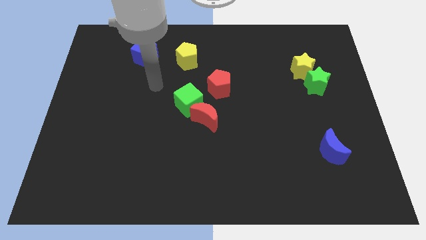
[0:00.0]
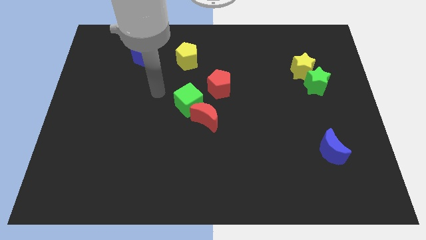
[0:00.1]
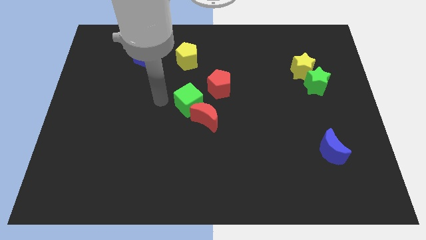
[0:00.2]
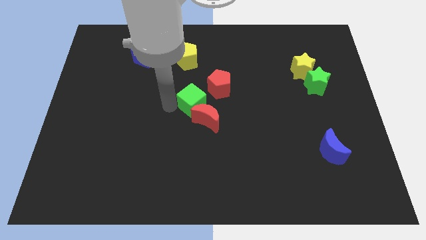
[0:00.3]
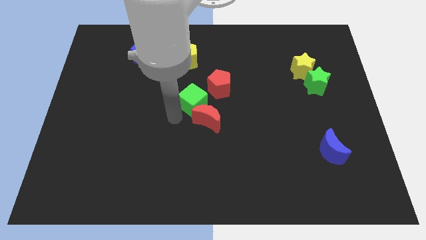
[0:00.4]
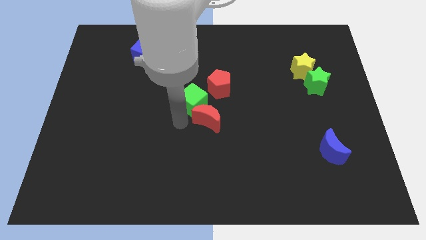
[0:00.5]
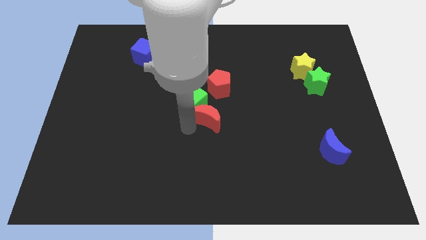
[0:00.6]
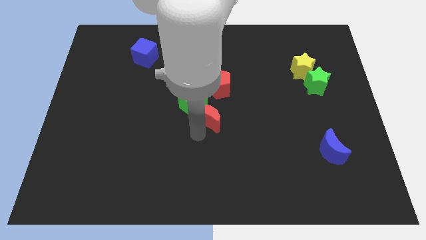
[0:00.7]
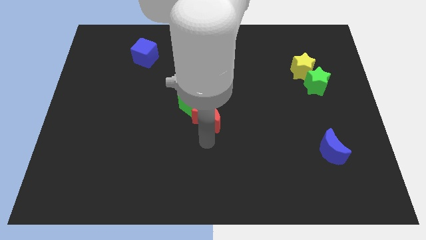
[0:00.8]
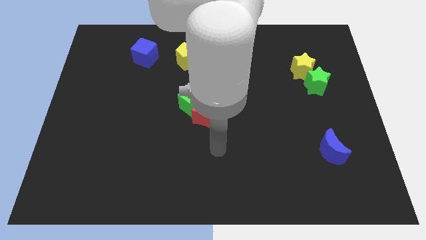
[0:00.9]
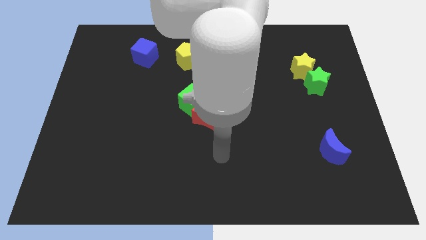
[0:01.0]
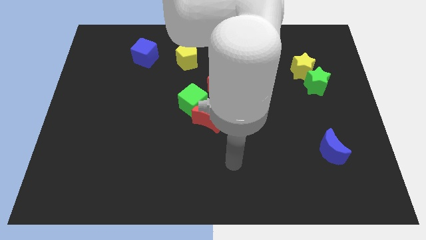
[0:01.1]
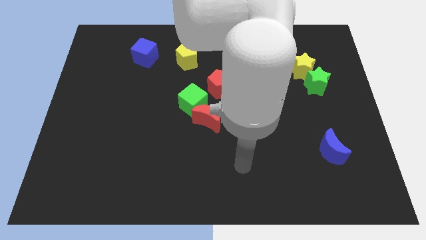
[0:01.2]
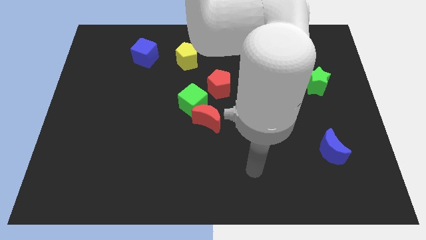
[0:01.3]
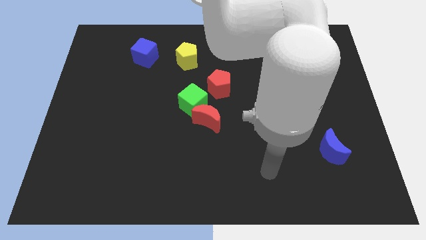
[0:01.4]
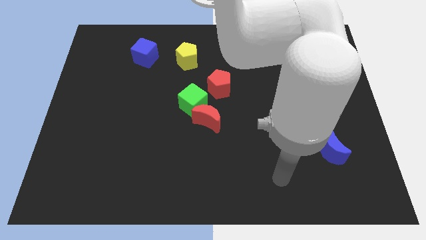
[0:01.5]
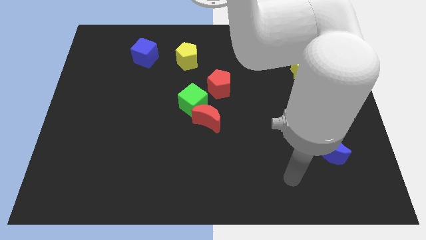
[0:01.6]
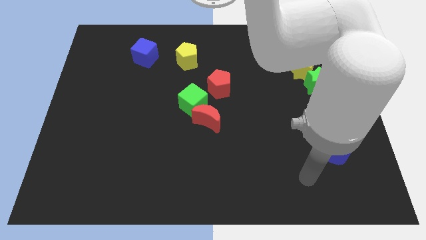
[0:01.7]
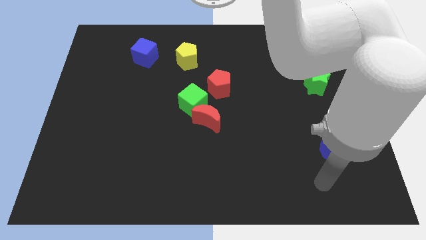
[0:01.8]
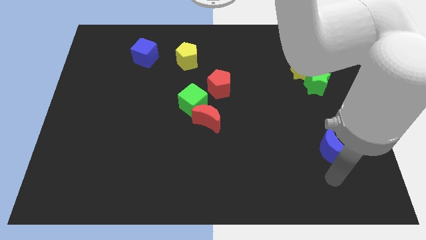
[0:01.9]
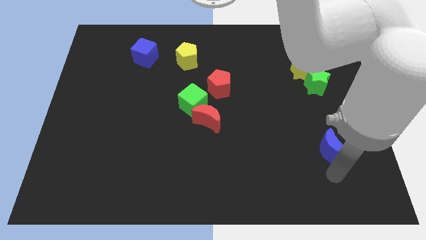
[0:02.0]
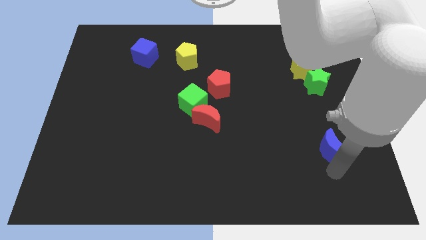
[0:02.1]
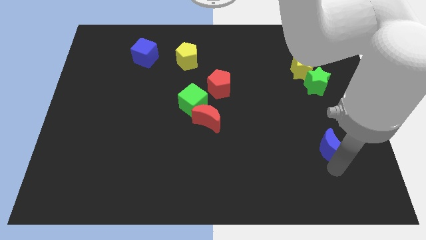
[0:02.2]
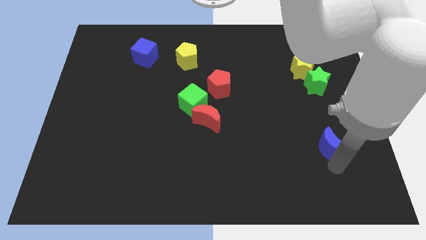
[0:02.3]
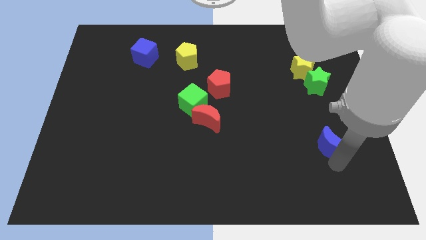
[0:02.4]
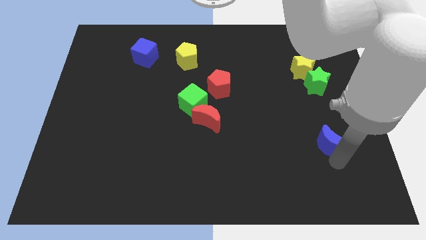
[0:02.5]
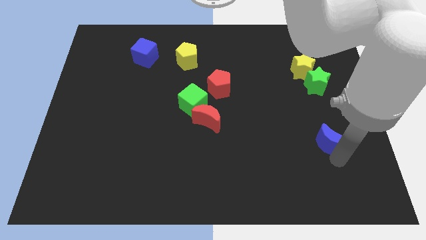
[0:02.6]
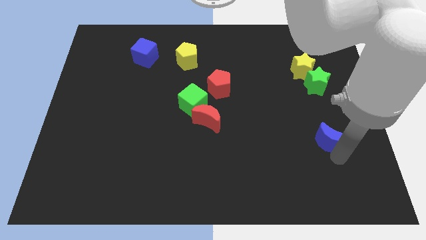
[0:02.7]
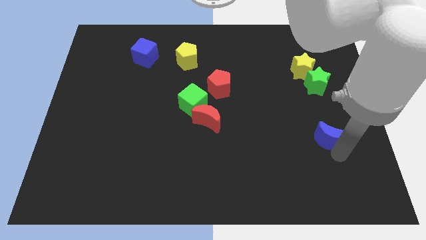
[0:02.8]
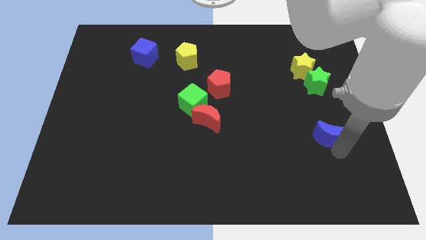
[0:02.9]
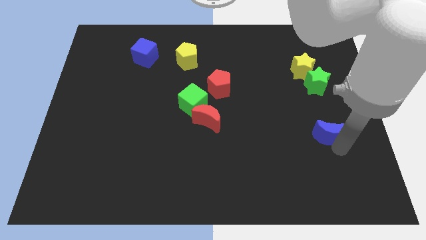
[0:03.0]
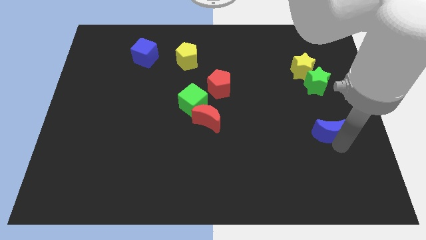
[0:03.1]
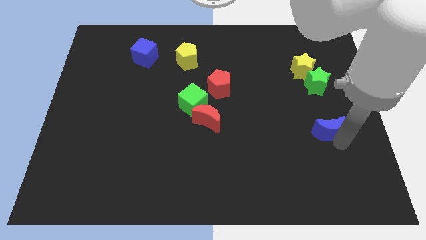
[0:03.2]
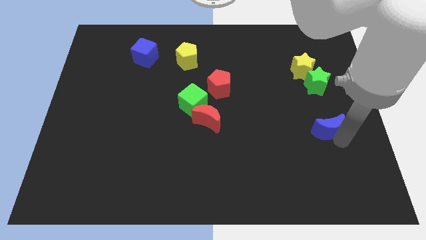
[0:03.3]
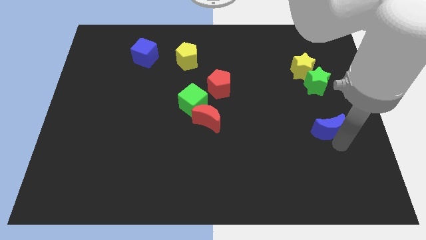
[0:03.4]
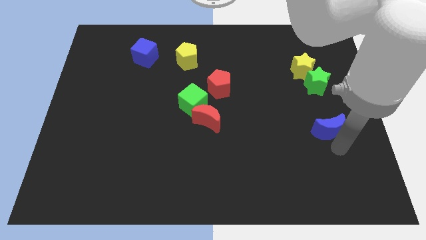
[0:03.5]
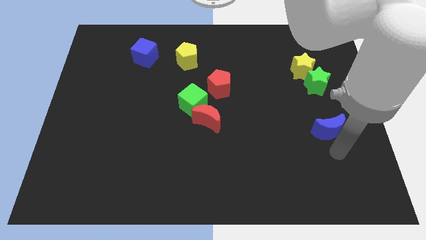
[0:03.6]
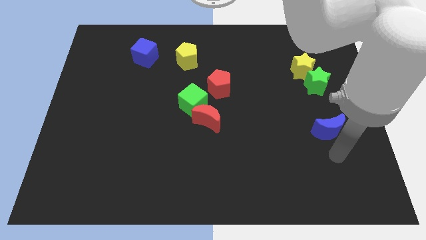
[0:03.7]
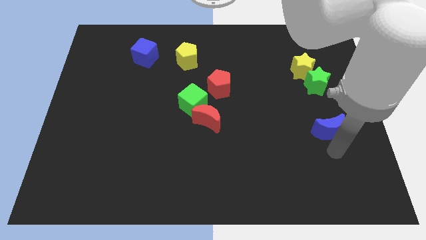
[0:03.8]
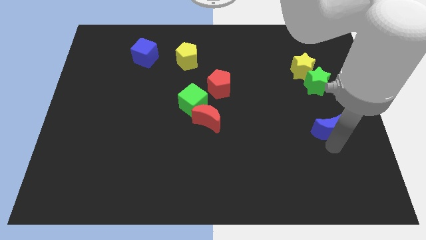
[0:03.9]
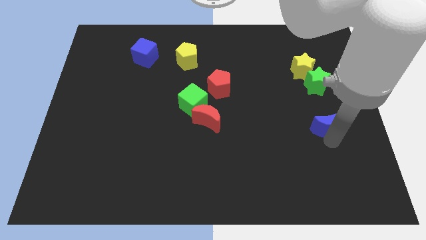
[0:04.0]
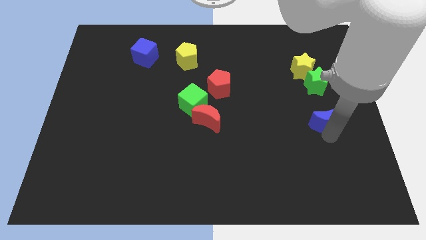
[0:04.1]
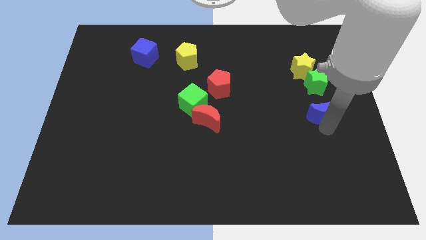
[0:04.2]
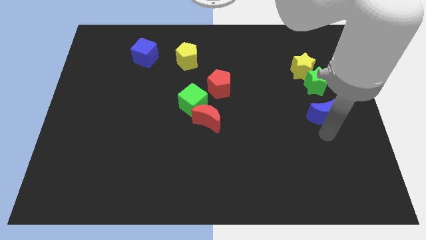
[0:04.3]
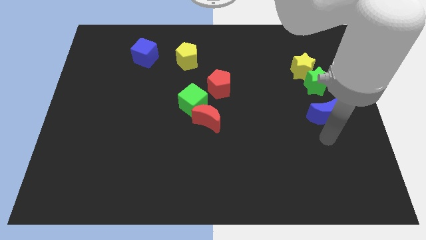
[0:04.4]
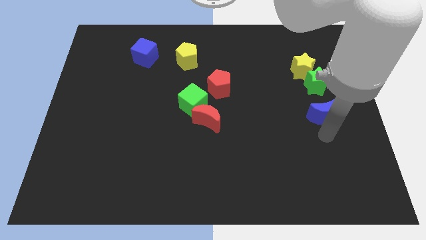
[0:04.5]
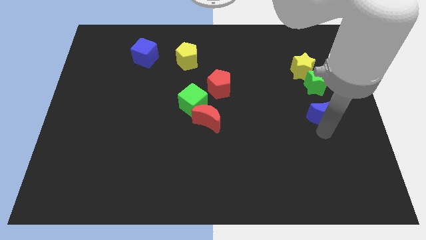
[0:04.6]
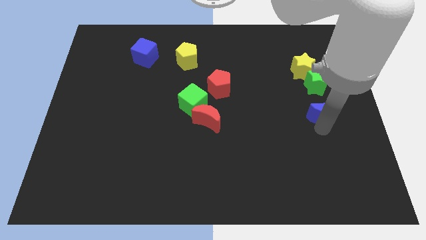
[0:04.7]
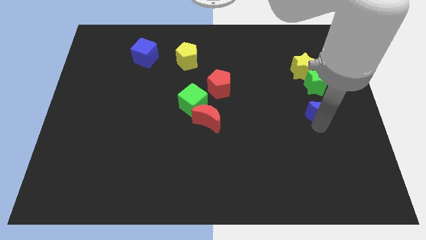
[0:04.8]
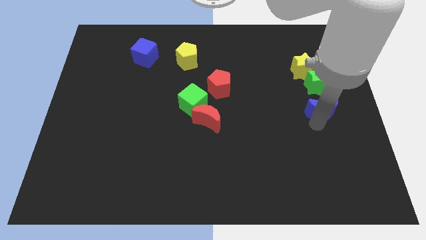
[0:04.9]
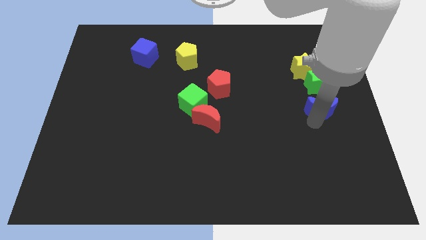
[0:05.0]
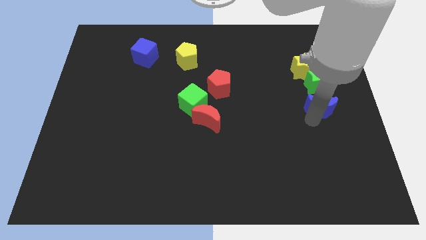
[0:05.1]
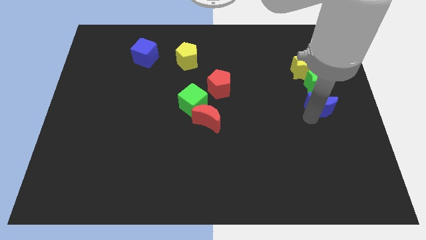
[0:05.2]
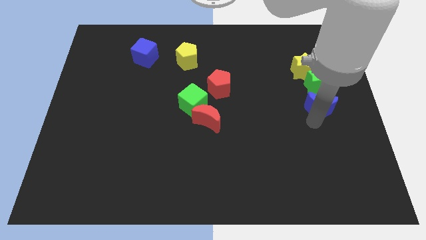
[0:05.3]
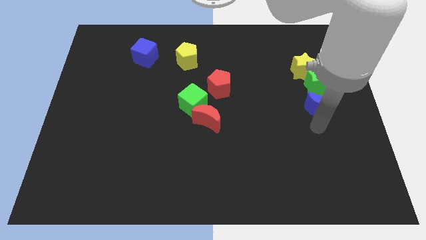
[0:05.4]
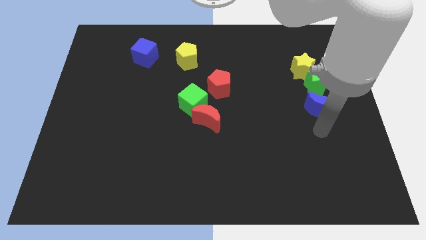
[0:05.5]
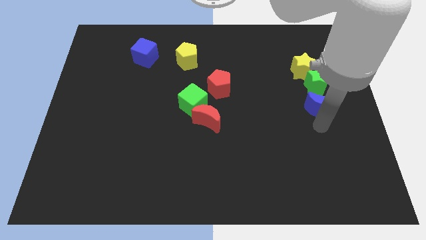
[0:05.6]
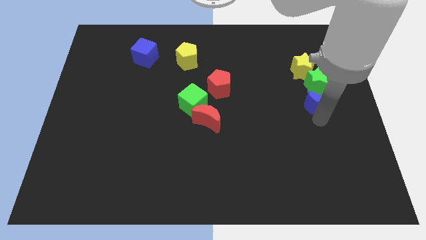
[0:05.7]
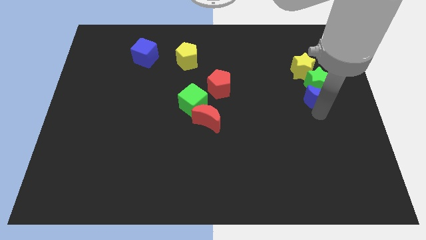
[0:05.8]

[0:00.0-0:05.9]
push the blue moon to the green star

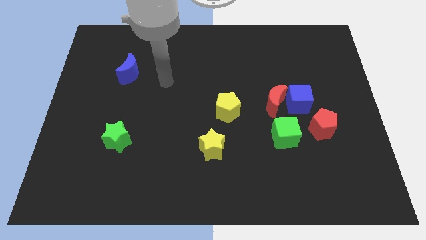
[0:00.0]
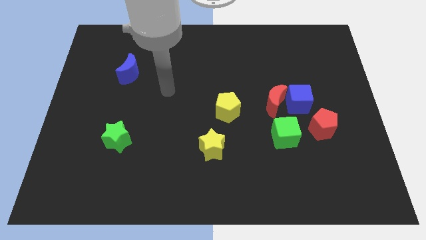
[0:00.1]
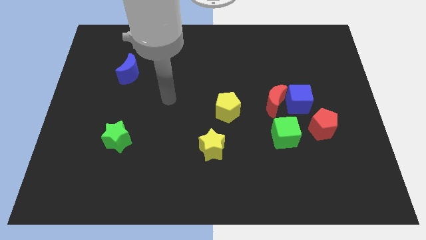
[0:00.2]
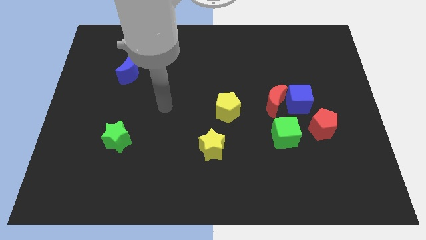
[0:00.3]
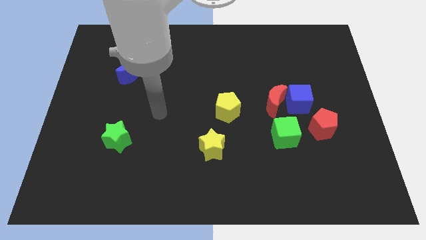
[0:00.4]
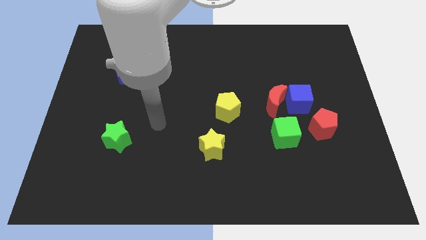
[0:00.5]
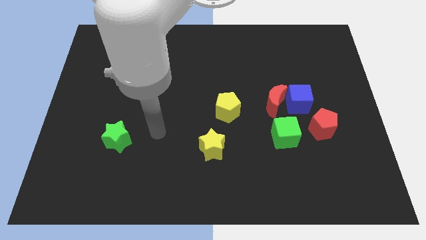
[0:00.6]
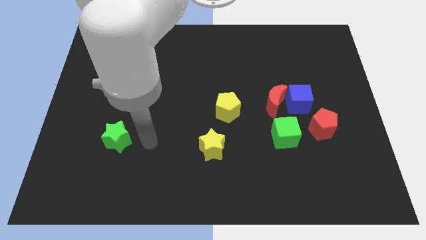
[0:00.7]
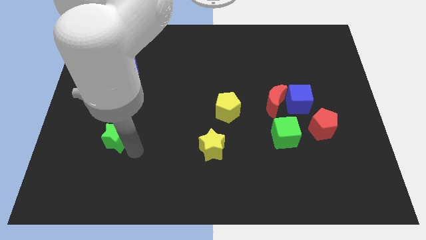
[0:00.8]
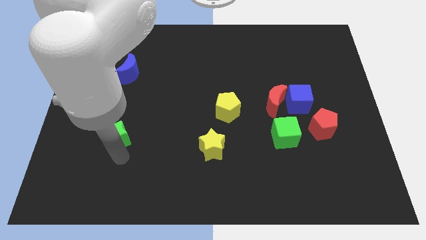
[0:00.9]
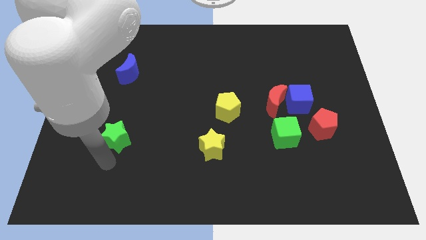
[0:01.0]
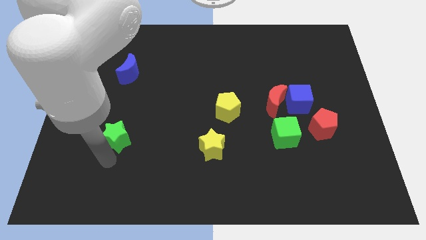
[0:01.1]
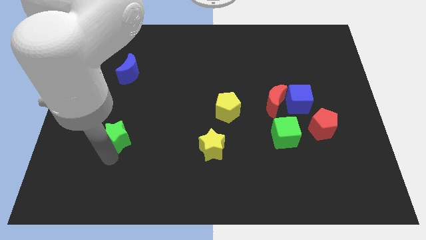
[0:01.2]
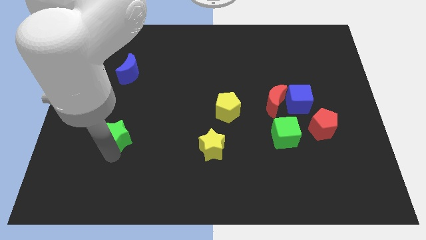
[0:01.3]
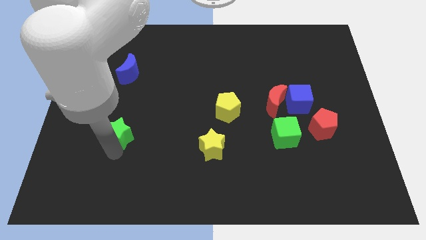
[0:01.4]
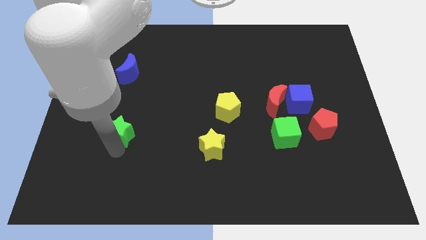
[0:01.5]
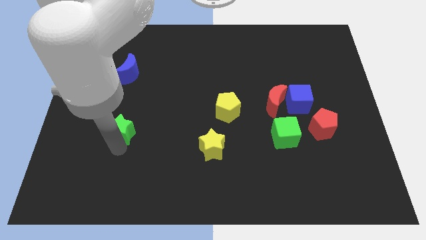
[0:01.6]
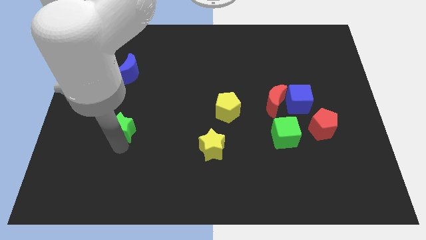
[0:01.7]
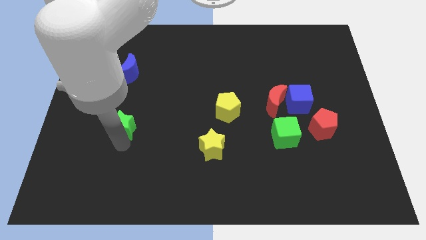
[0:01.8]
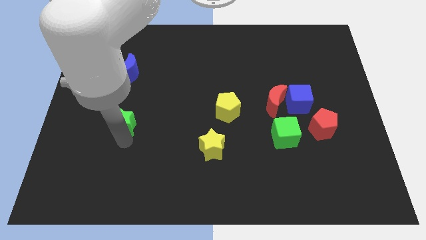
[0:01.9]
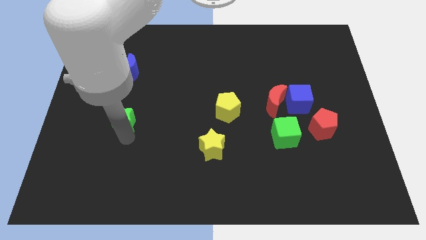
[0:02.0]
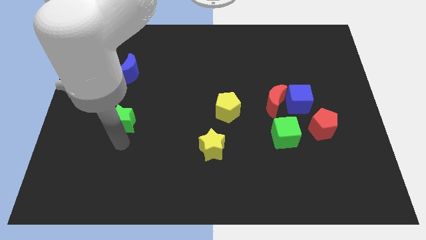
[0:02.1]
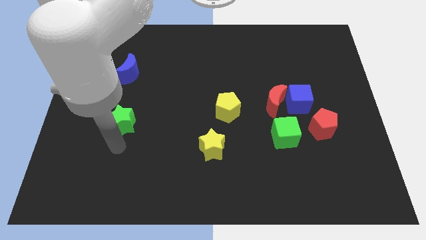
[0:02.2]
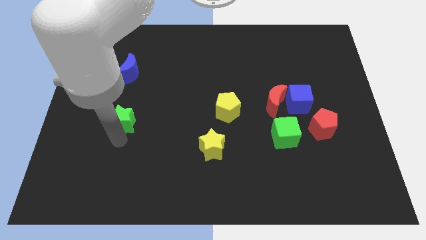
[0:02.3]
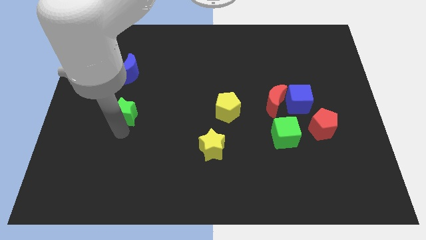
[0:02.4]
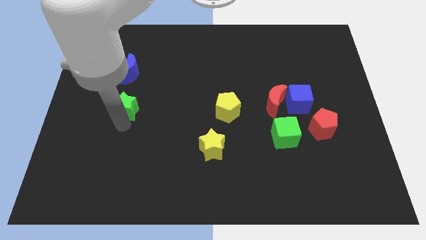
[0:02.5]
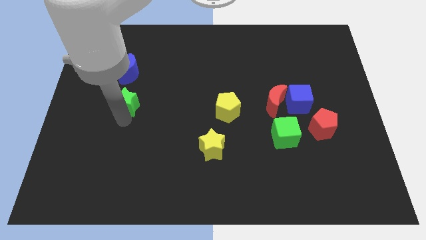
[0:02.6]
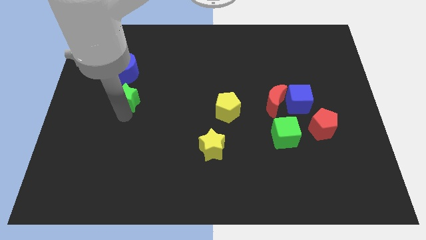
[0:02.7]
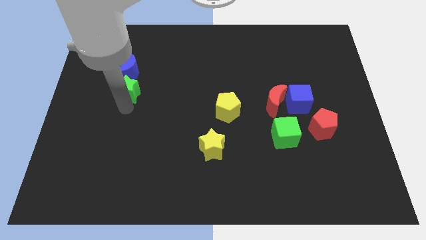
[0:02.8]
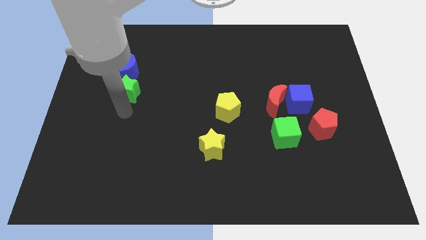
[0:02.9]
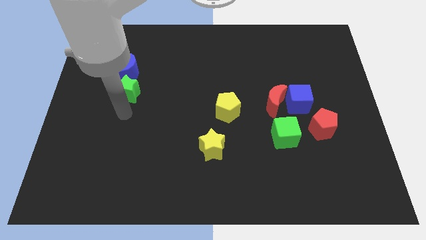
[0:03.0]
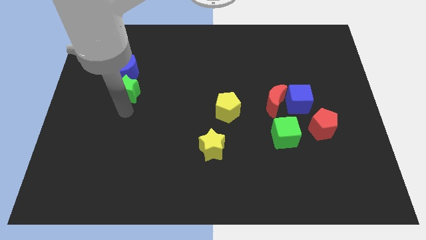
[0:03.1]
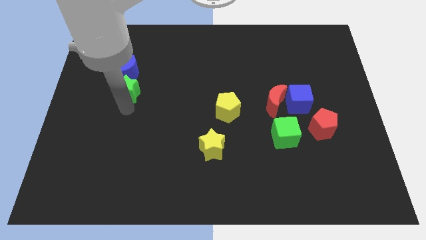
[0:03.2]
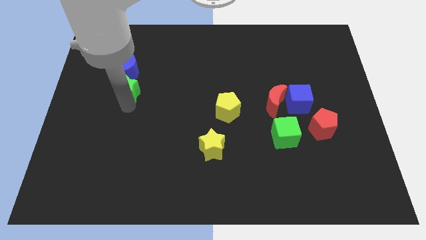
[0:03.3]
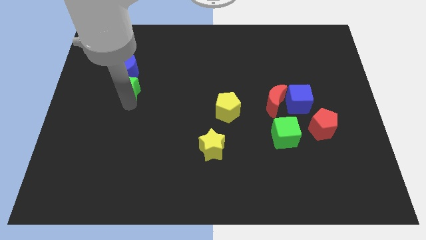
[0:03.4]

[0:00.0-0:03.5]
put the green star to the blue moon
